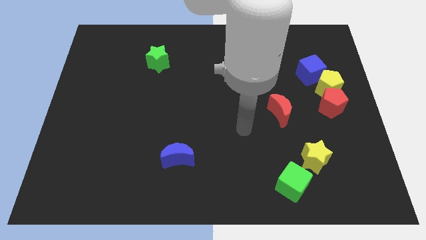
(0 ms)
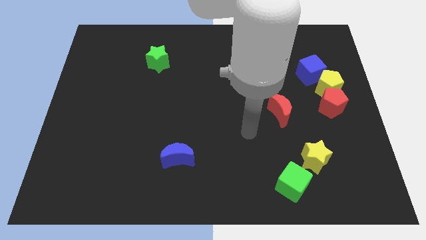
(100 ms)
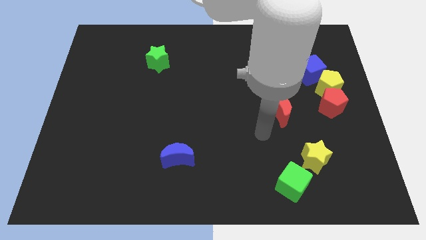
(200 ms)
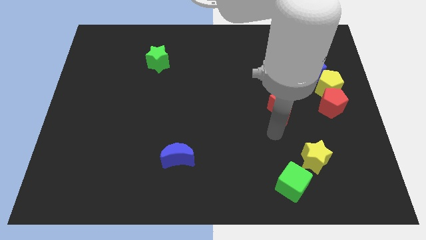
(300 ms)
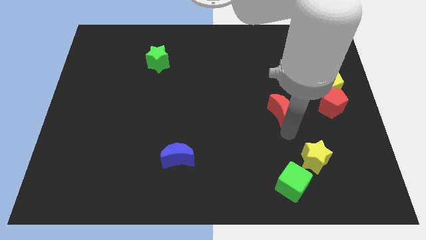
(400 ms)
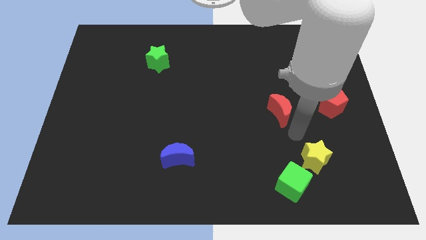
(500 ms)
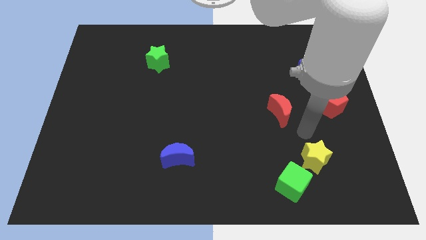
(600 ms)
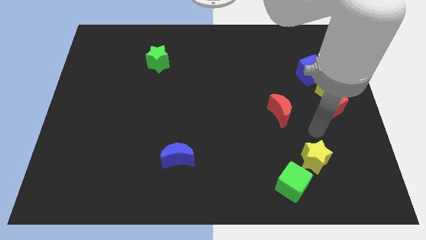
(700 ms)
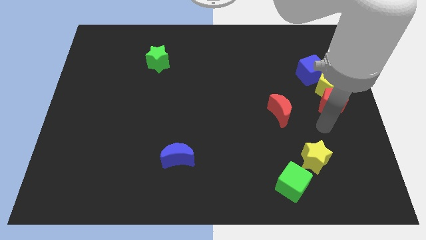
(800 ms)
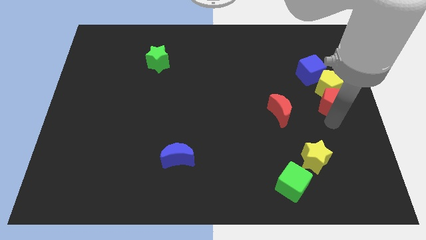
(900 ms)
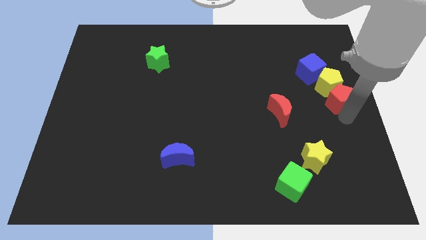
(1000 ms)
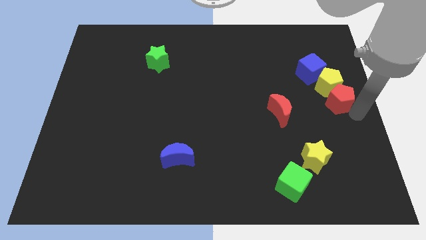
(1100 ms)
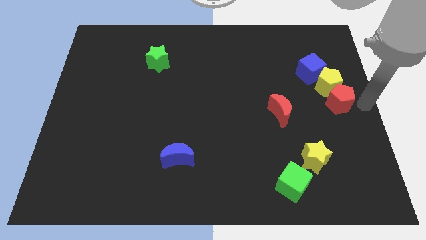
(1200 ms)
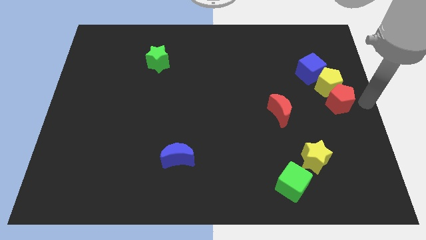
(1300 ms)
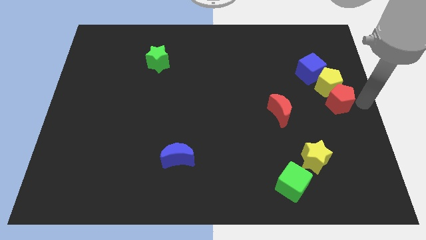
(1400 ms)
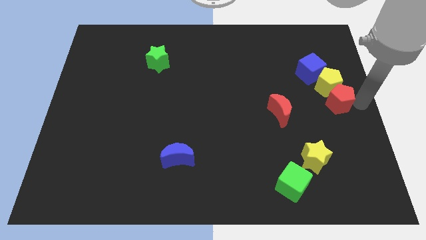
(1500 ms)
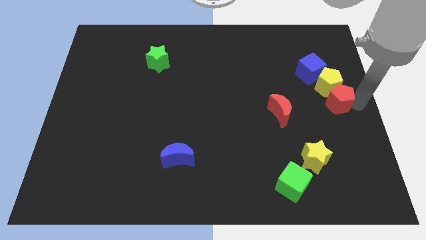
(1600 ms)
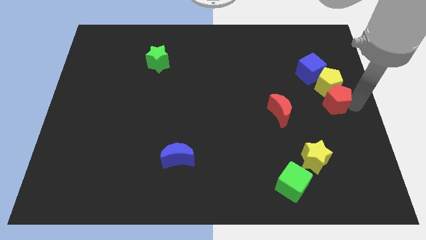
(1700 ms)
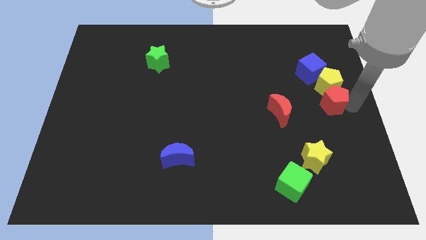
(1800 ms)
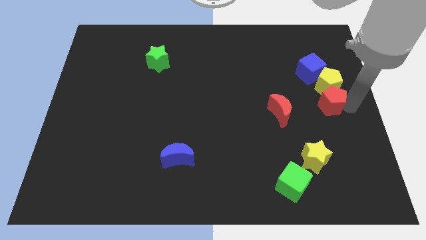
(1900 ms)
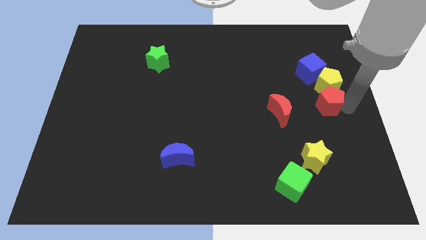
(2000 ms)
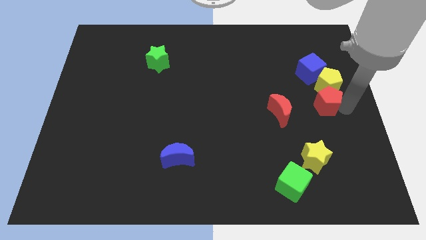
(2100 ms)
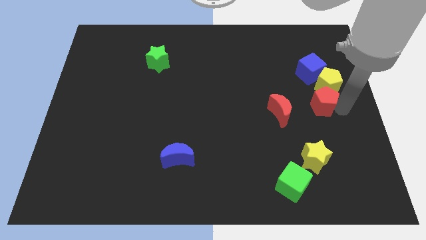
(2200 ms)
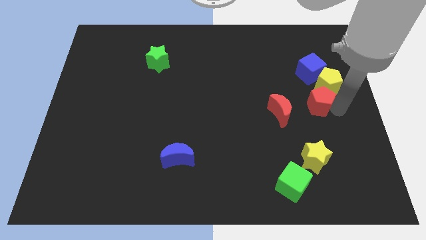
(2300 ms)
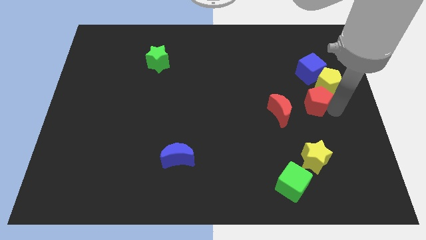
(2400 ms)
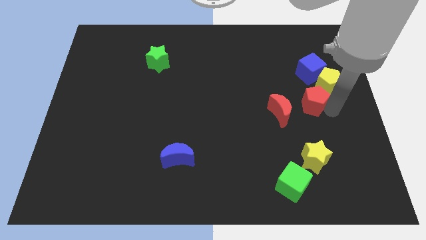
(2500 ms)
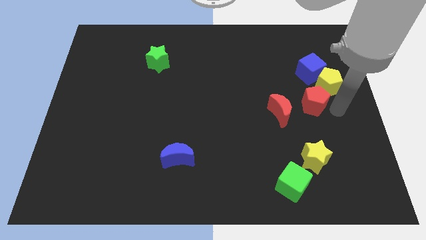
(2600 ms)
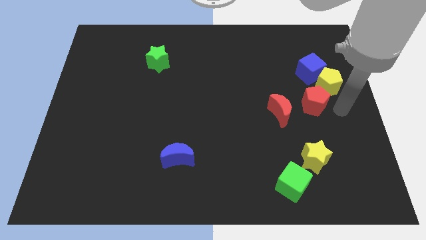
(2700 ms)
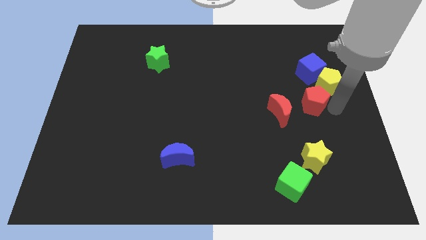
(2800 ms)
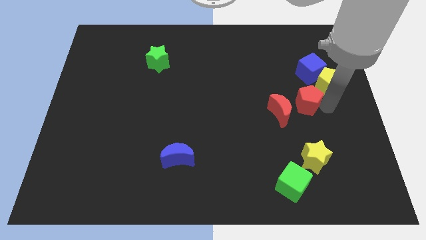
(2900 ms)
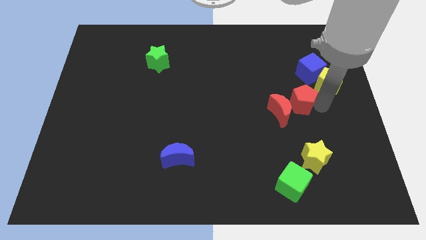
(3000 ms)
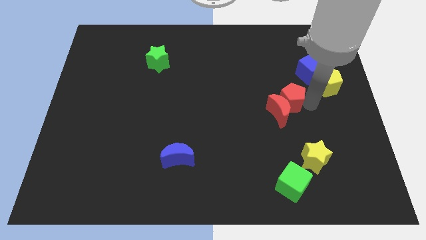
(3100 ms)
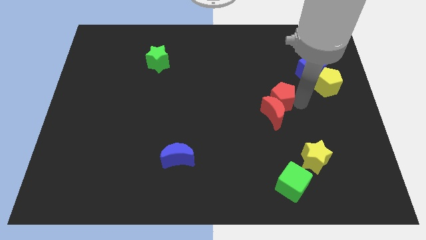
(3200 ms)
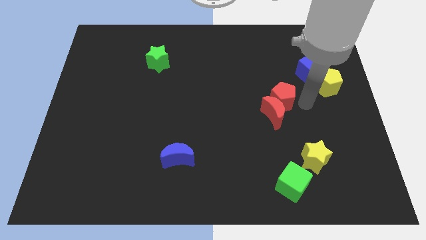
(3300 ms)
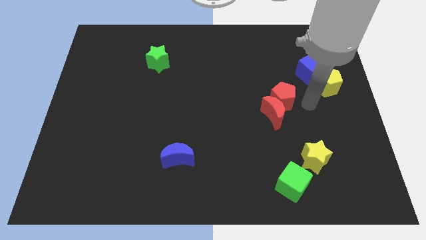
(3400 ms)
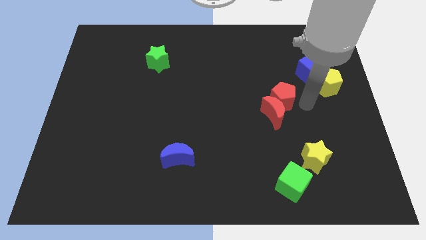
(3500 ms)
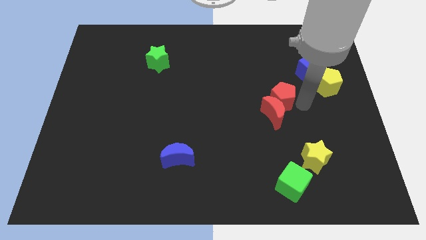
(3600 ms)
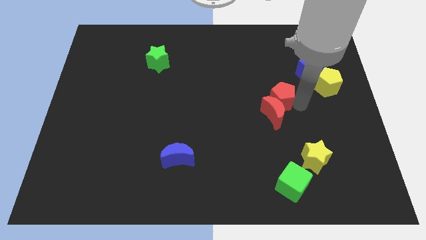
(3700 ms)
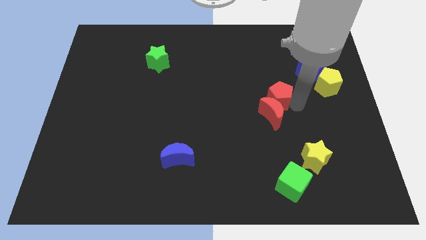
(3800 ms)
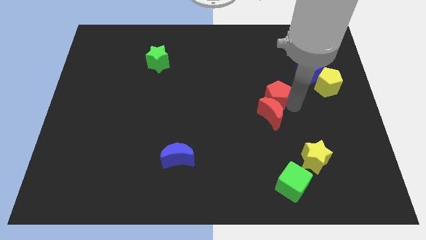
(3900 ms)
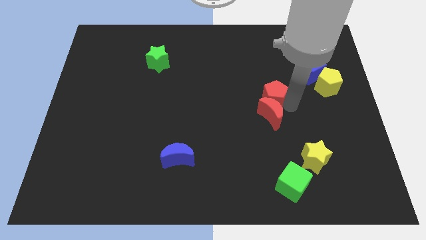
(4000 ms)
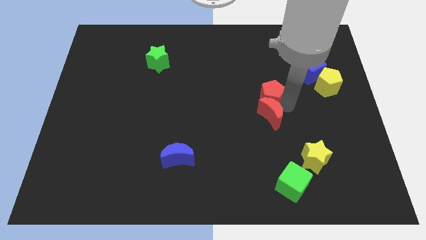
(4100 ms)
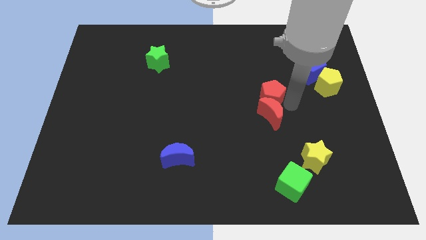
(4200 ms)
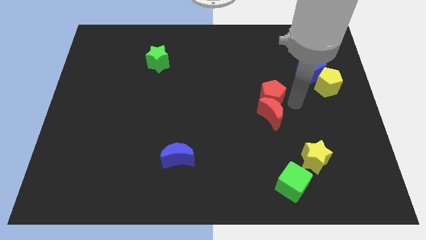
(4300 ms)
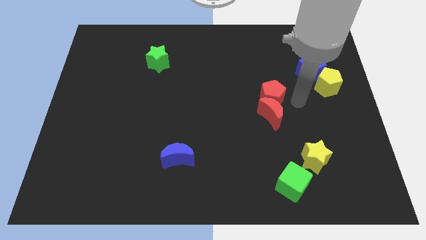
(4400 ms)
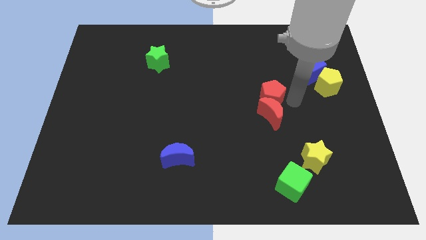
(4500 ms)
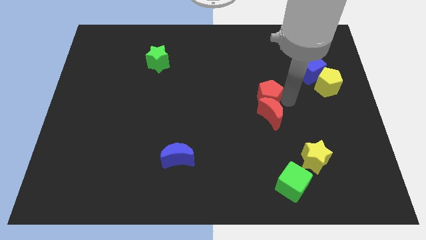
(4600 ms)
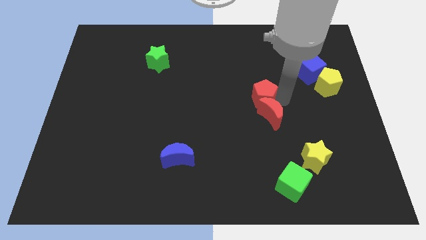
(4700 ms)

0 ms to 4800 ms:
put the red pentagon to the middle of the board

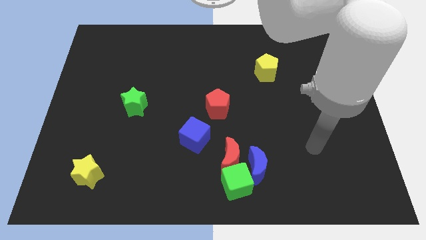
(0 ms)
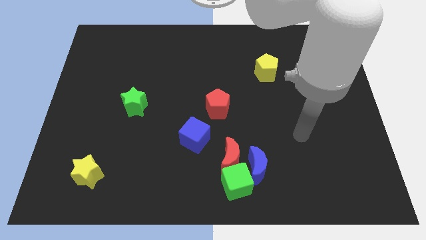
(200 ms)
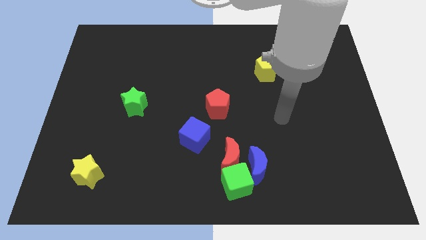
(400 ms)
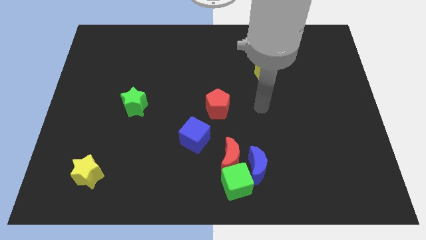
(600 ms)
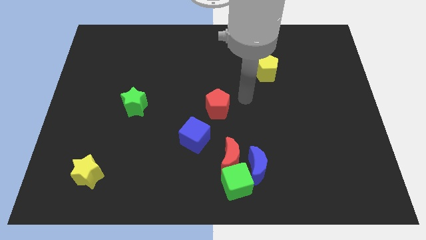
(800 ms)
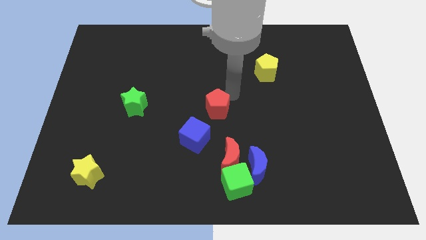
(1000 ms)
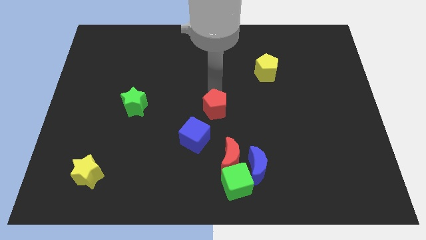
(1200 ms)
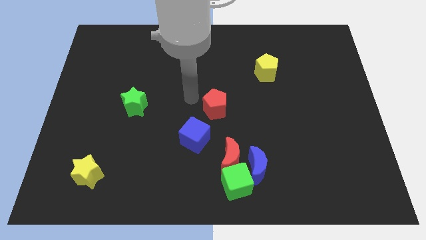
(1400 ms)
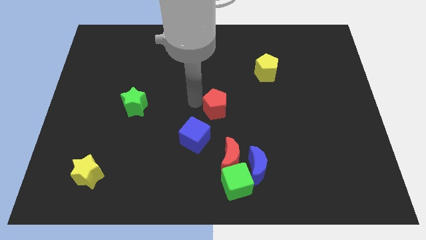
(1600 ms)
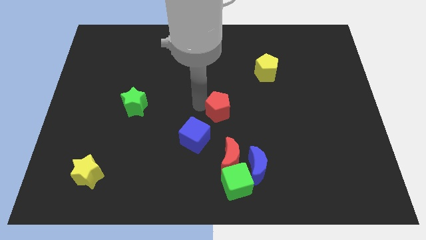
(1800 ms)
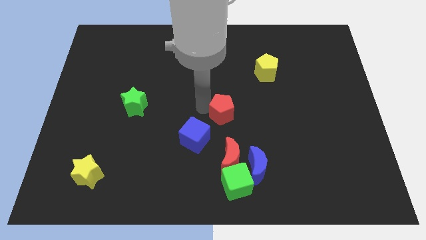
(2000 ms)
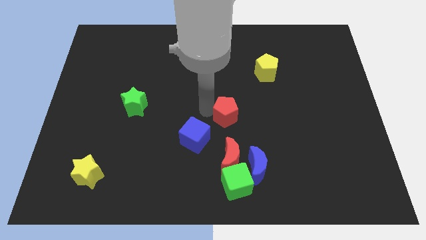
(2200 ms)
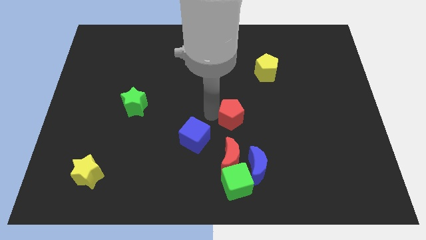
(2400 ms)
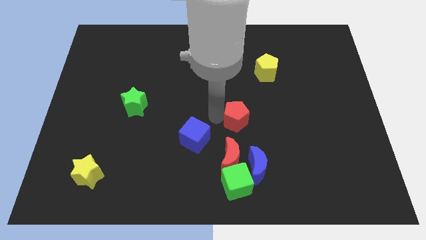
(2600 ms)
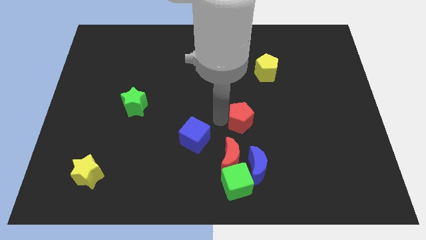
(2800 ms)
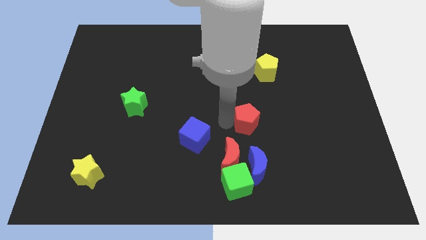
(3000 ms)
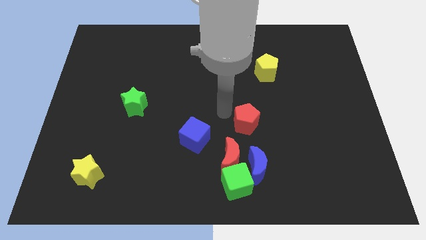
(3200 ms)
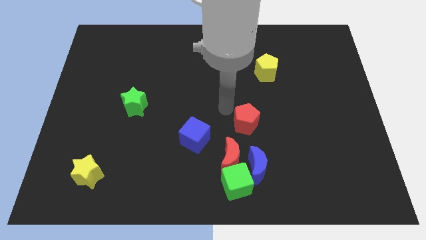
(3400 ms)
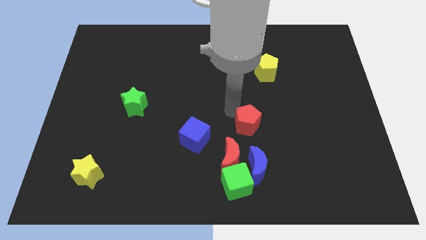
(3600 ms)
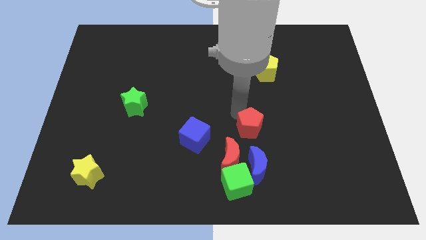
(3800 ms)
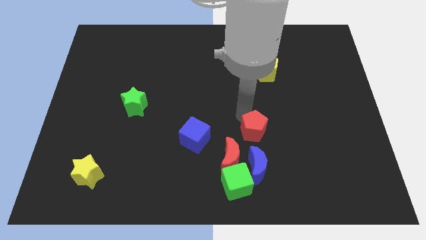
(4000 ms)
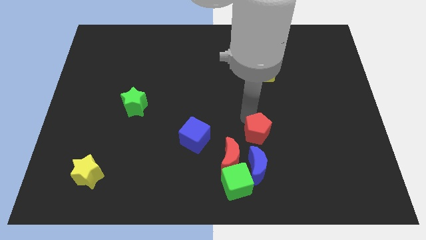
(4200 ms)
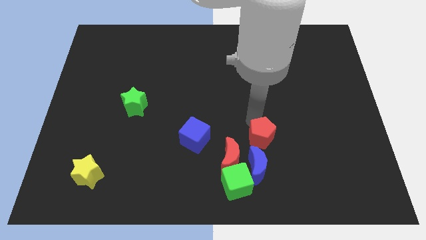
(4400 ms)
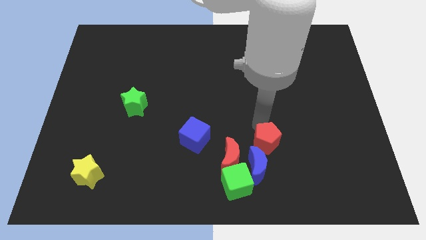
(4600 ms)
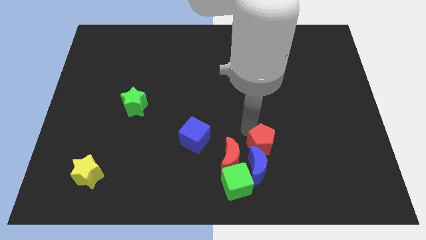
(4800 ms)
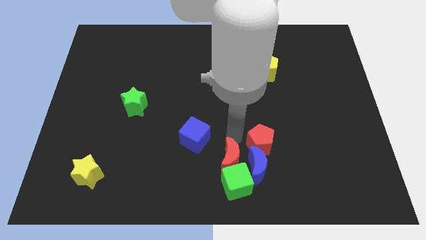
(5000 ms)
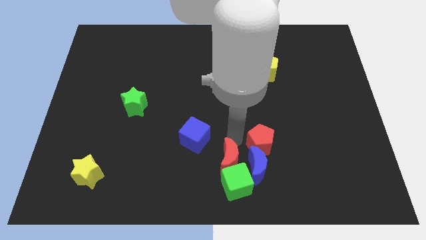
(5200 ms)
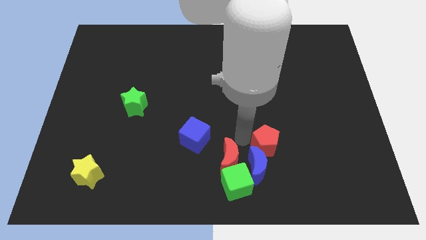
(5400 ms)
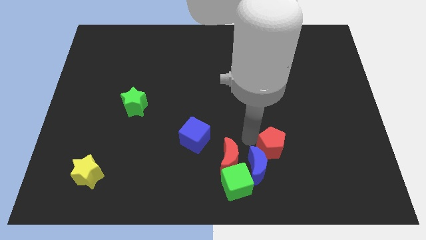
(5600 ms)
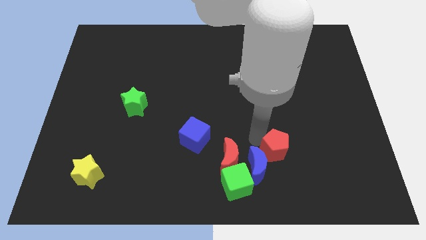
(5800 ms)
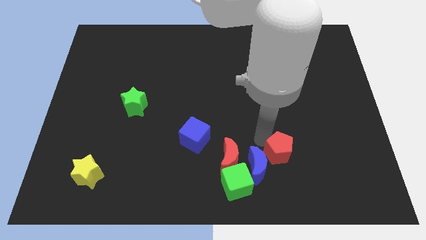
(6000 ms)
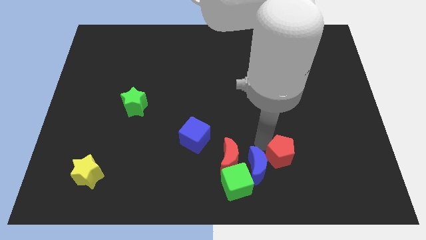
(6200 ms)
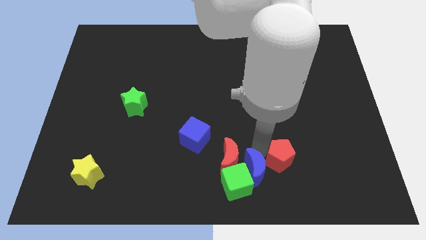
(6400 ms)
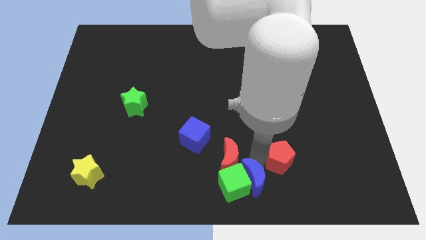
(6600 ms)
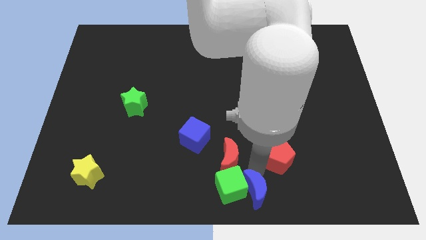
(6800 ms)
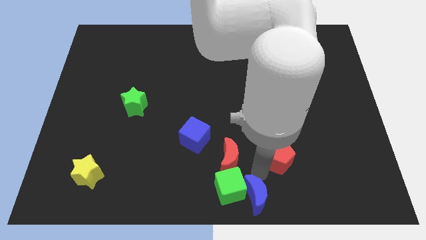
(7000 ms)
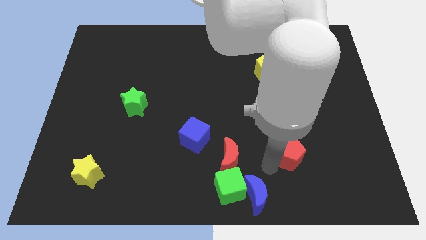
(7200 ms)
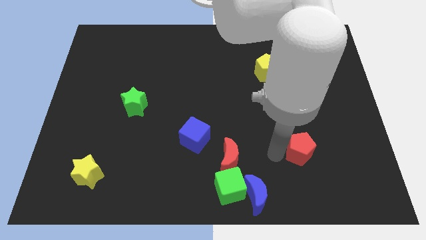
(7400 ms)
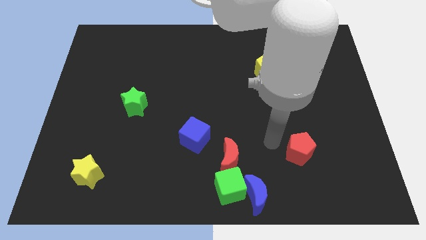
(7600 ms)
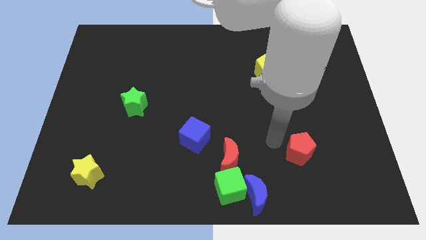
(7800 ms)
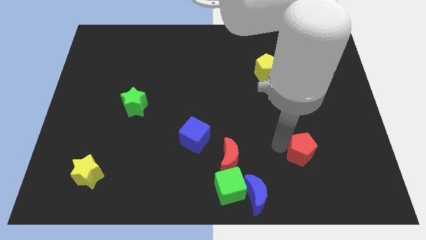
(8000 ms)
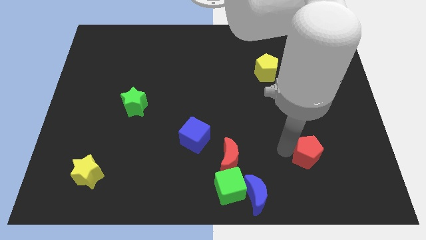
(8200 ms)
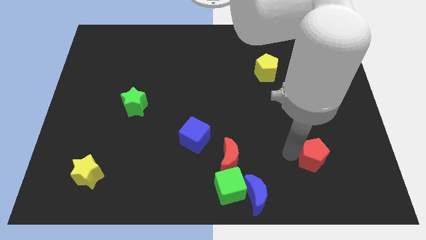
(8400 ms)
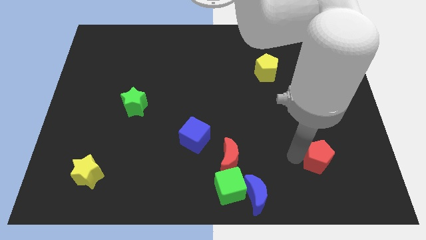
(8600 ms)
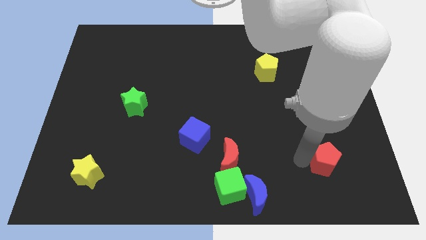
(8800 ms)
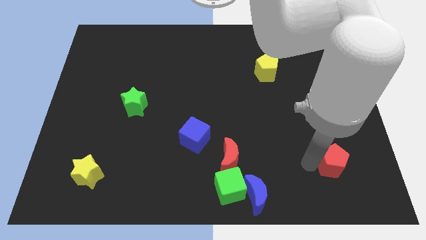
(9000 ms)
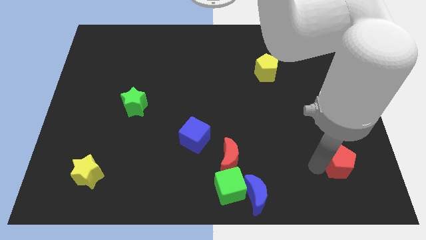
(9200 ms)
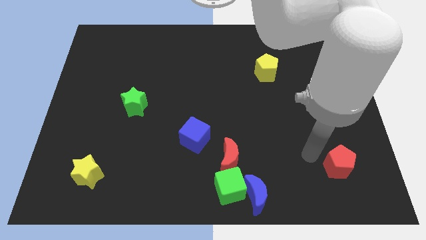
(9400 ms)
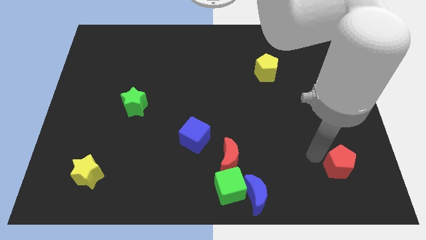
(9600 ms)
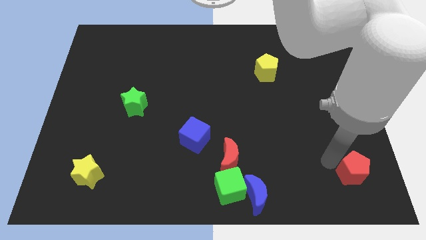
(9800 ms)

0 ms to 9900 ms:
slide the red pentagon to the lower right corner
